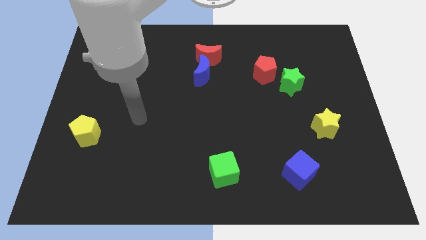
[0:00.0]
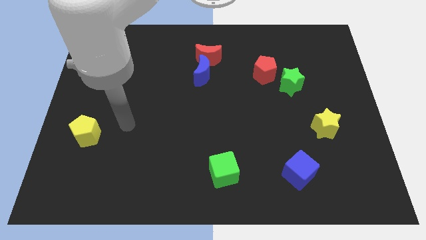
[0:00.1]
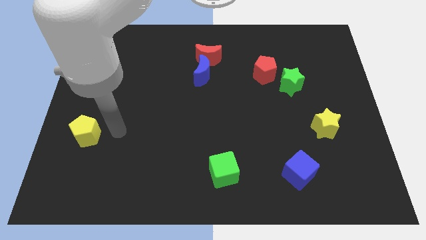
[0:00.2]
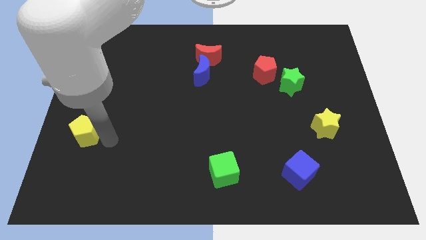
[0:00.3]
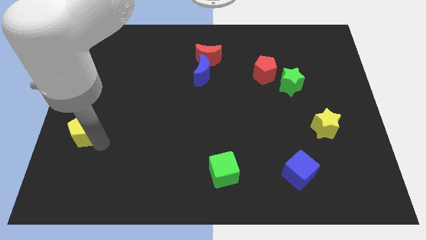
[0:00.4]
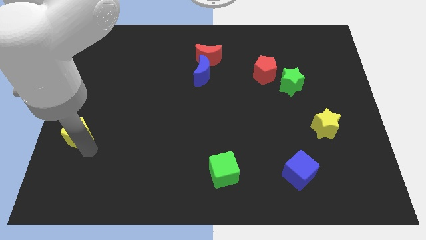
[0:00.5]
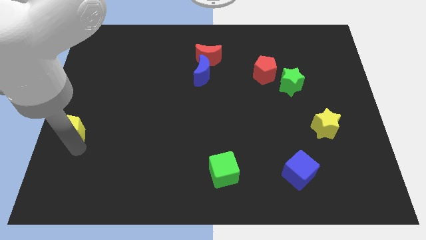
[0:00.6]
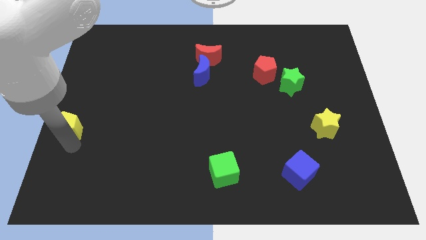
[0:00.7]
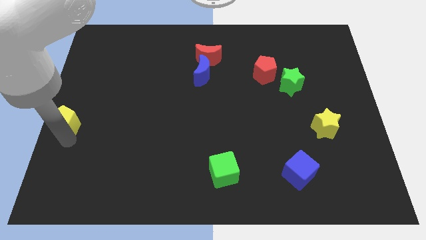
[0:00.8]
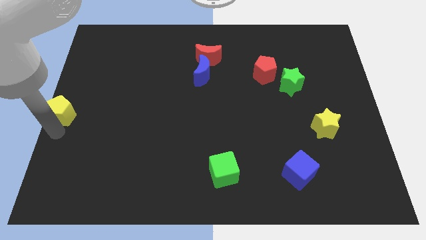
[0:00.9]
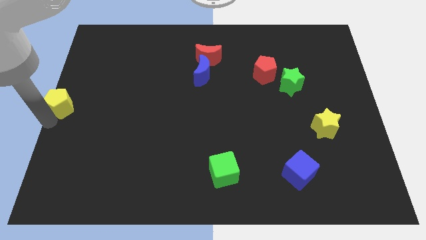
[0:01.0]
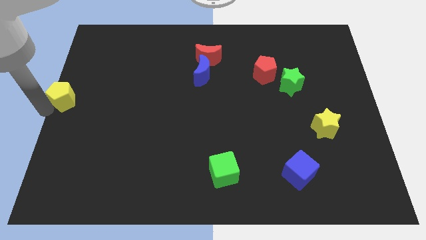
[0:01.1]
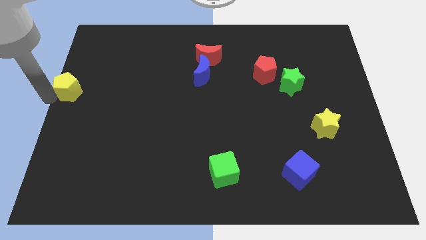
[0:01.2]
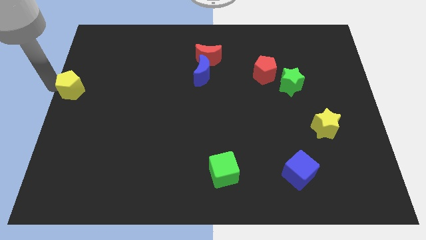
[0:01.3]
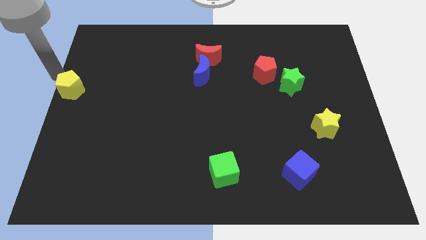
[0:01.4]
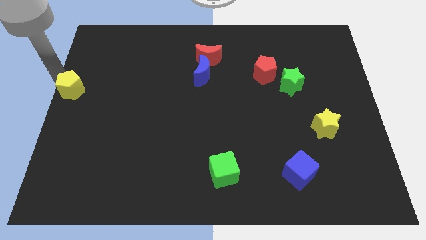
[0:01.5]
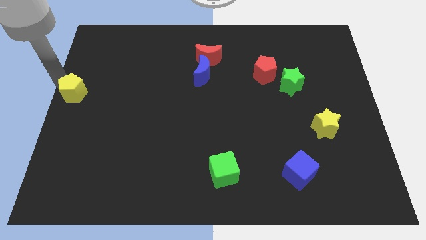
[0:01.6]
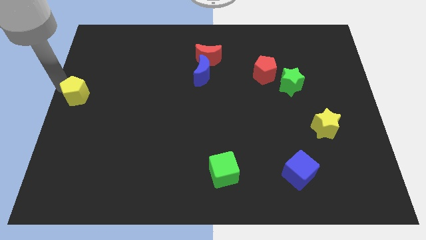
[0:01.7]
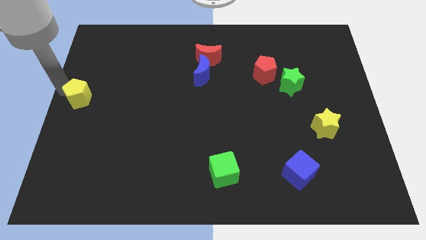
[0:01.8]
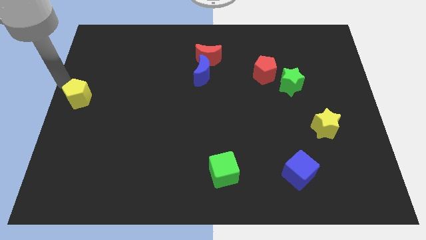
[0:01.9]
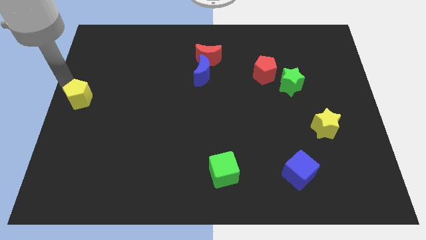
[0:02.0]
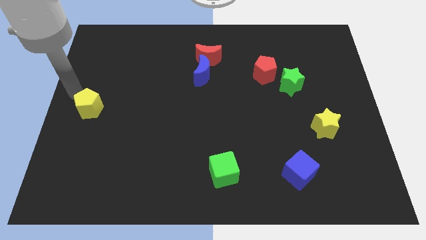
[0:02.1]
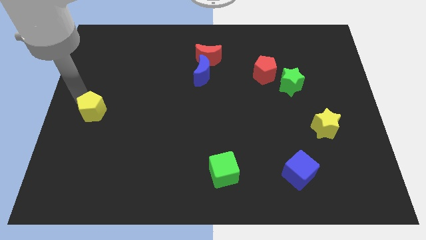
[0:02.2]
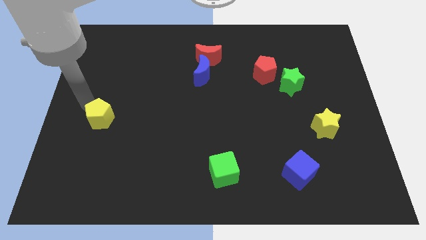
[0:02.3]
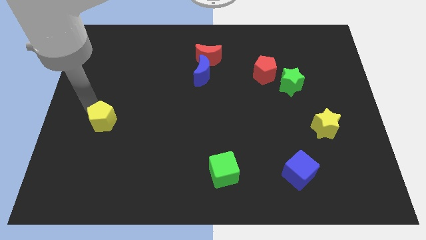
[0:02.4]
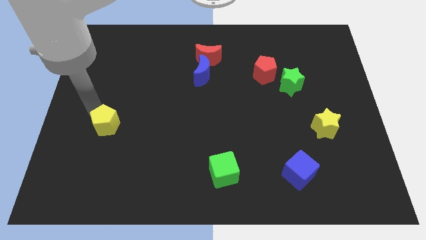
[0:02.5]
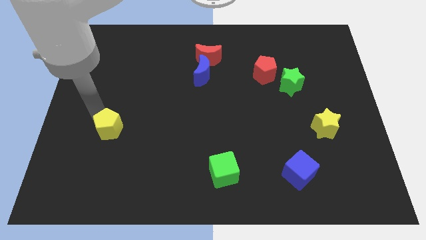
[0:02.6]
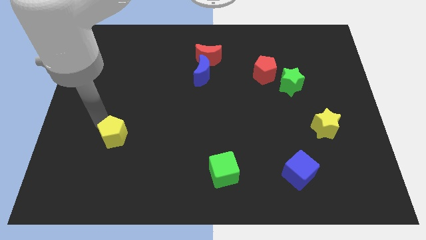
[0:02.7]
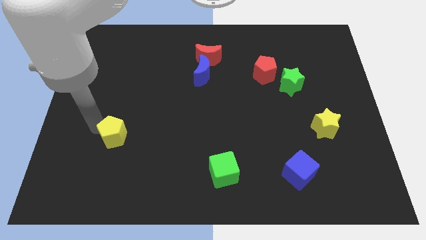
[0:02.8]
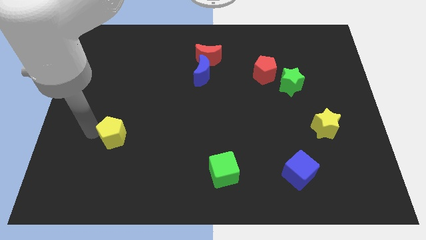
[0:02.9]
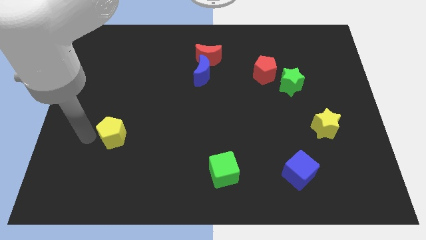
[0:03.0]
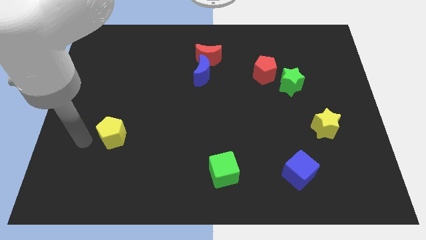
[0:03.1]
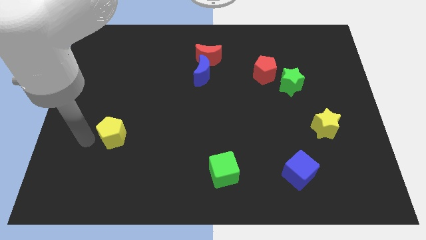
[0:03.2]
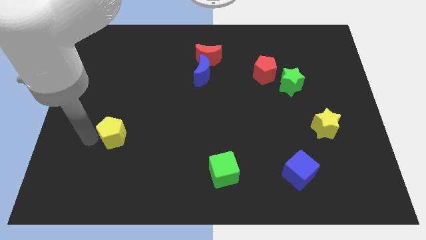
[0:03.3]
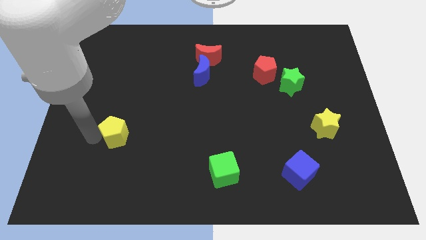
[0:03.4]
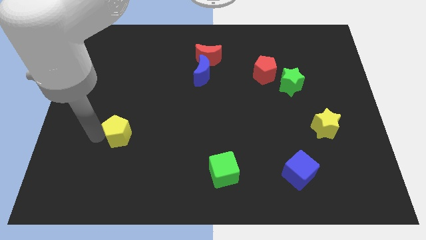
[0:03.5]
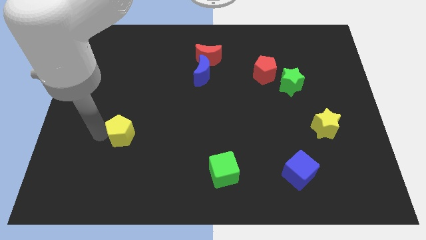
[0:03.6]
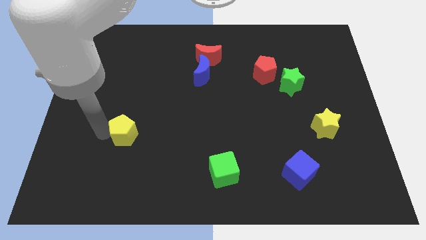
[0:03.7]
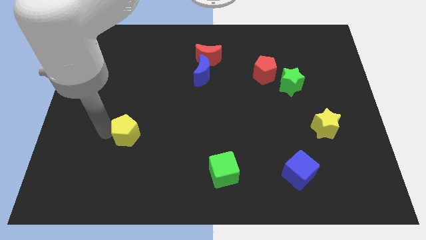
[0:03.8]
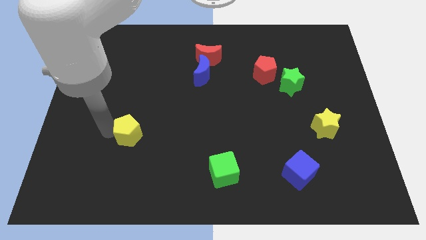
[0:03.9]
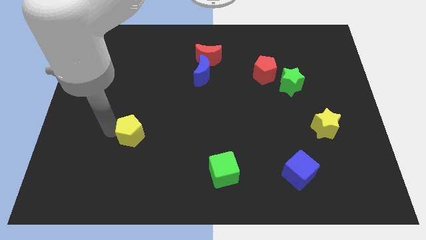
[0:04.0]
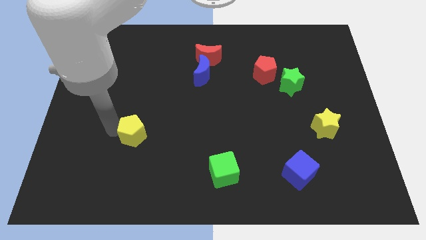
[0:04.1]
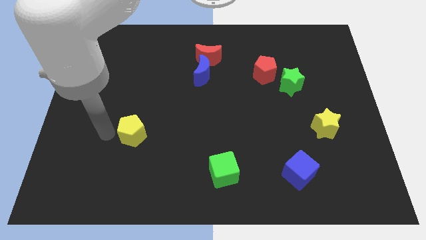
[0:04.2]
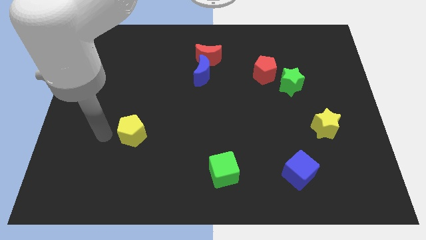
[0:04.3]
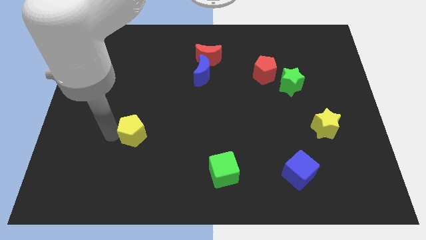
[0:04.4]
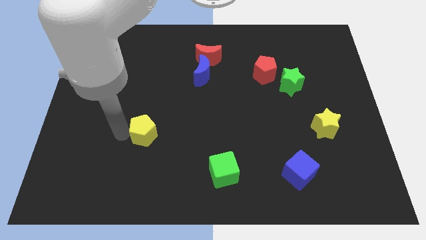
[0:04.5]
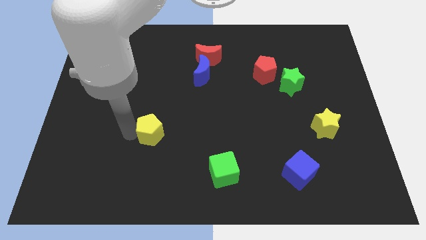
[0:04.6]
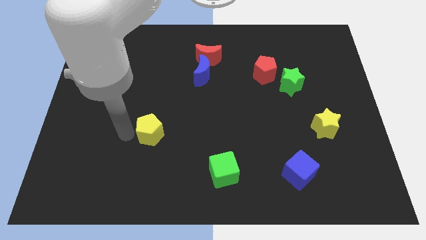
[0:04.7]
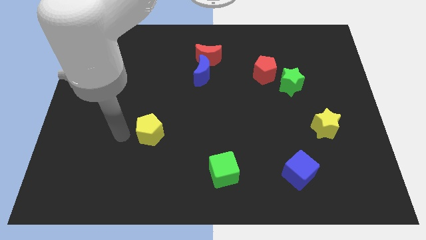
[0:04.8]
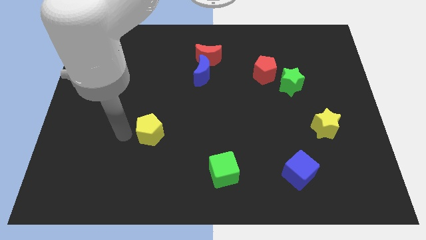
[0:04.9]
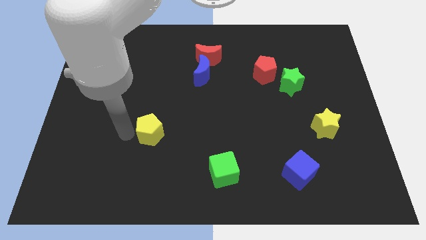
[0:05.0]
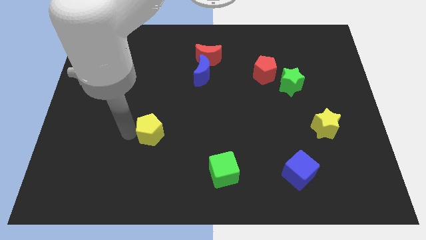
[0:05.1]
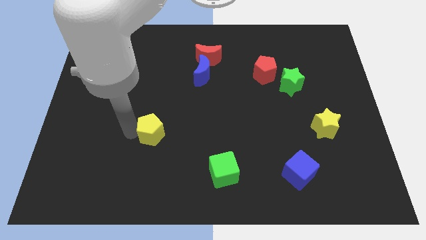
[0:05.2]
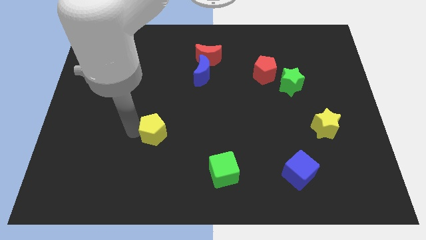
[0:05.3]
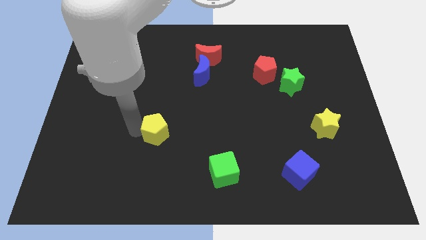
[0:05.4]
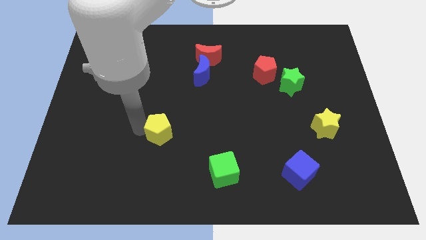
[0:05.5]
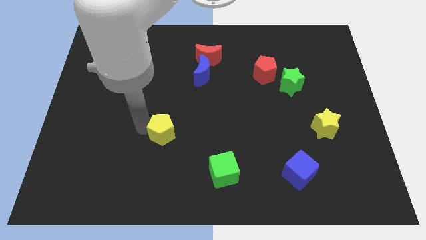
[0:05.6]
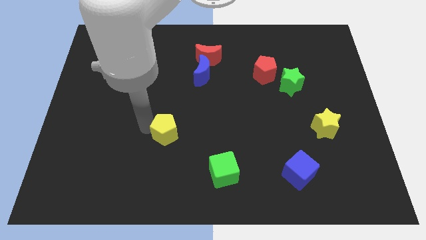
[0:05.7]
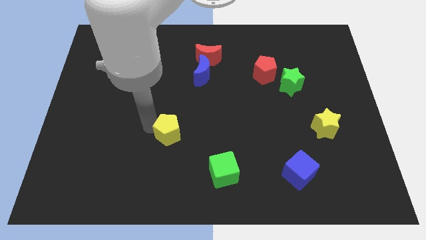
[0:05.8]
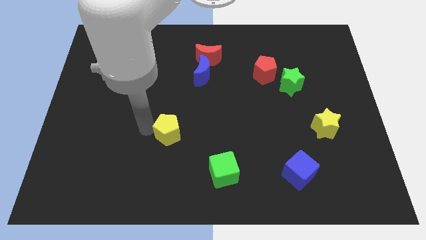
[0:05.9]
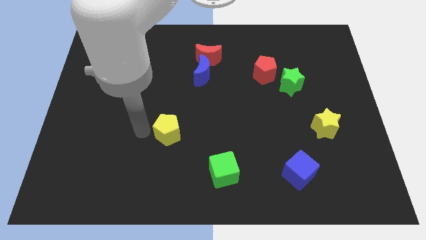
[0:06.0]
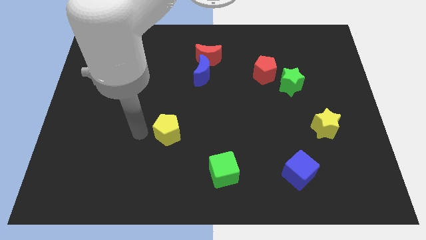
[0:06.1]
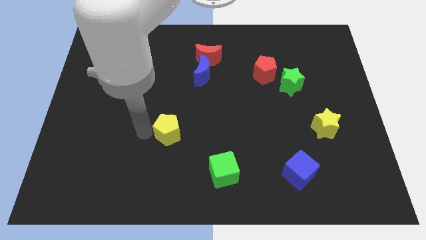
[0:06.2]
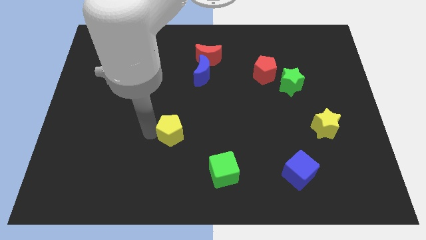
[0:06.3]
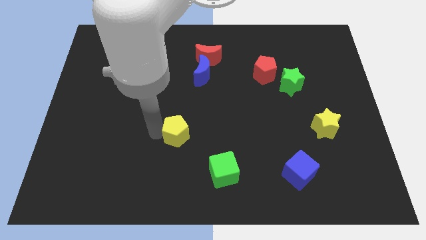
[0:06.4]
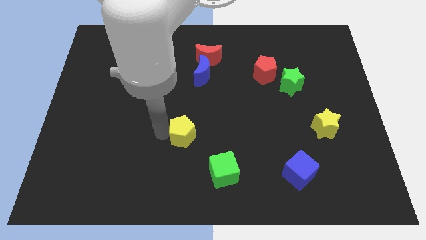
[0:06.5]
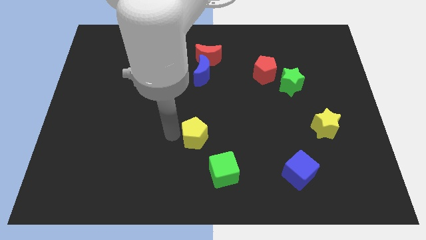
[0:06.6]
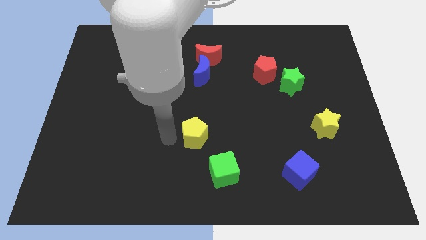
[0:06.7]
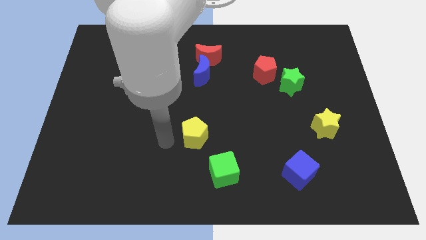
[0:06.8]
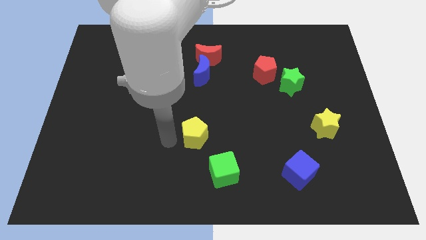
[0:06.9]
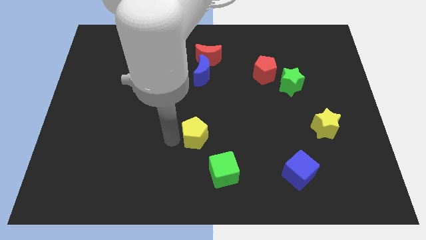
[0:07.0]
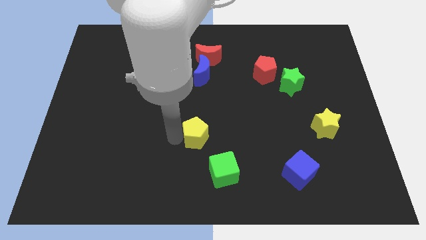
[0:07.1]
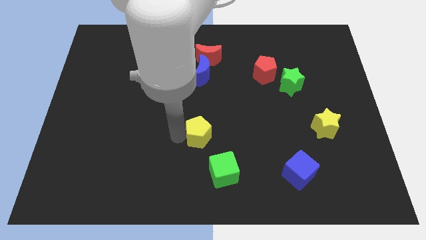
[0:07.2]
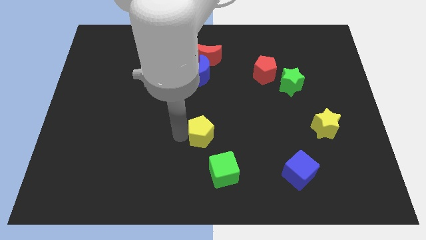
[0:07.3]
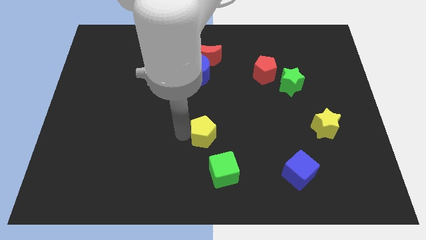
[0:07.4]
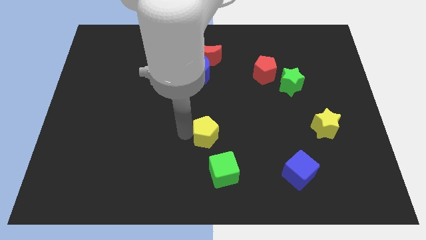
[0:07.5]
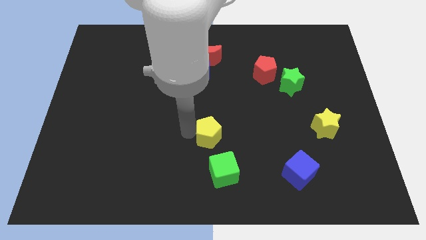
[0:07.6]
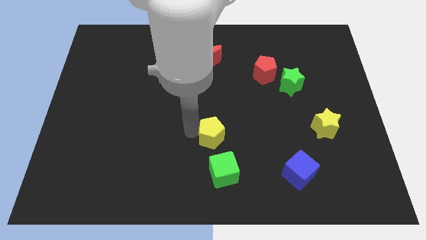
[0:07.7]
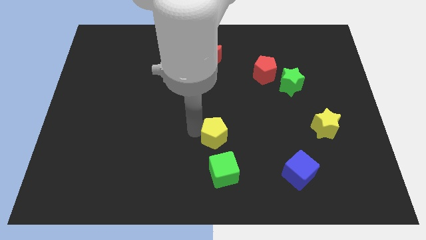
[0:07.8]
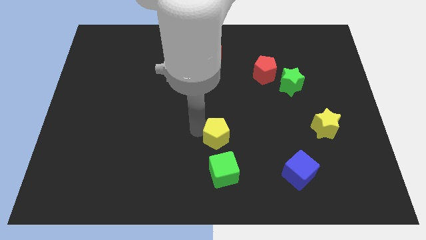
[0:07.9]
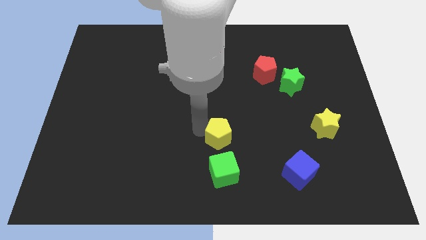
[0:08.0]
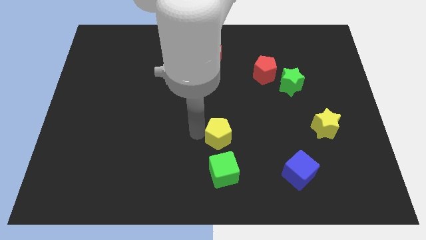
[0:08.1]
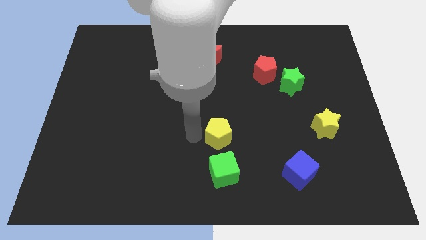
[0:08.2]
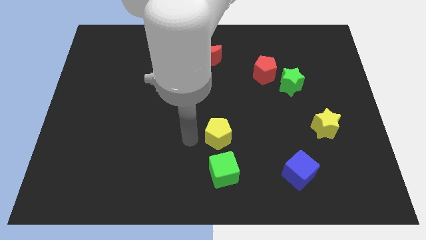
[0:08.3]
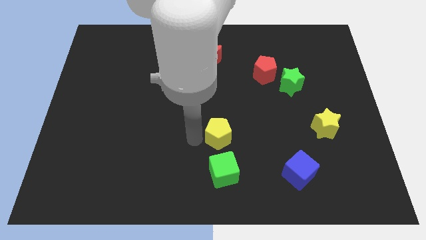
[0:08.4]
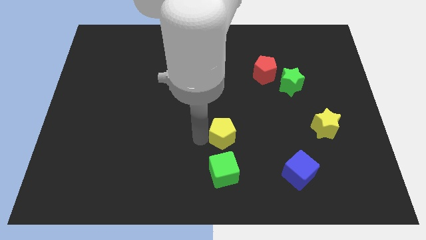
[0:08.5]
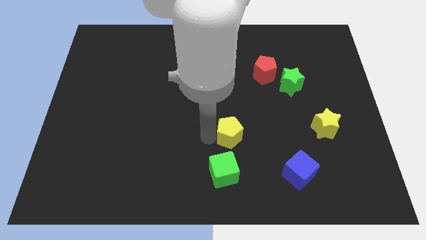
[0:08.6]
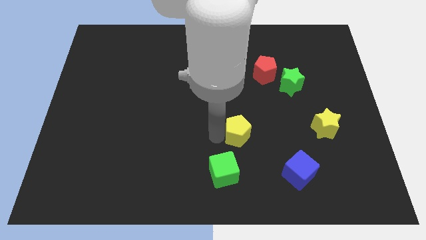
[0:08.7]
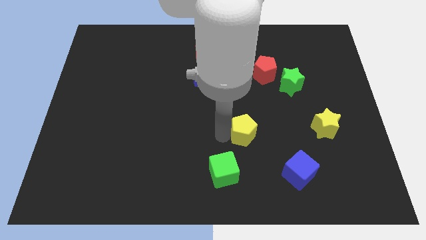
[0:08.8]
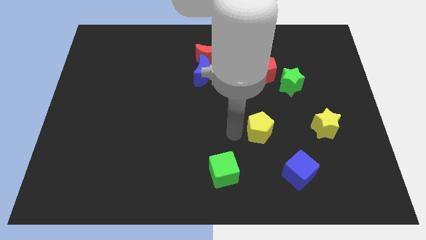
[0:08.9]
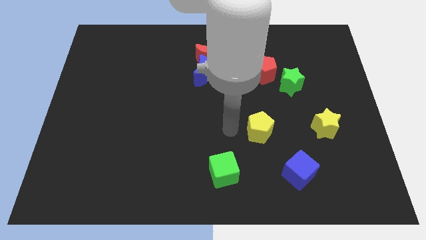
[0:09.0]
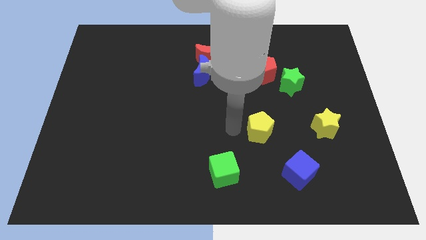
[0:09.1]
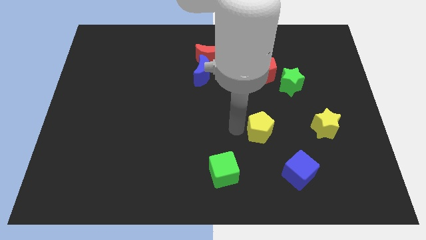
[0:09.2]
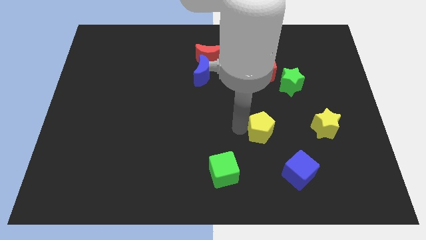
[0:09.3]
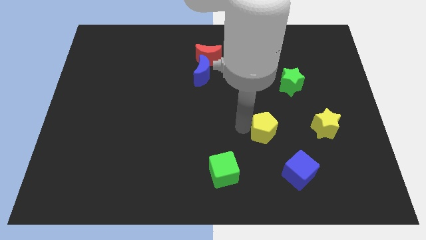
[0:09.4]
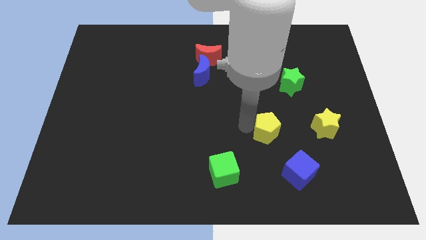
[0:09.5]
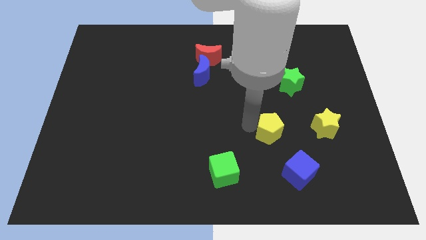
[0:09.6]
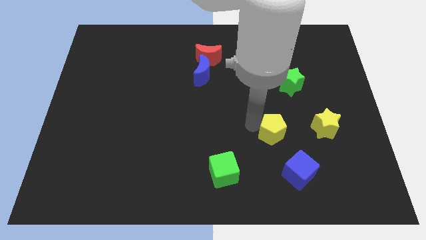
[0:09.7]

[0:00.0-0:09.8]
push the yellow pentagon above the blue cube
